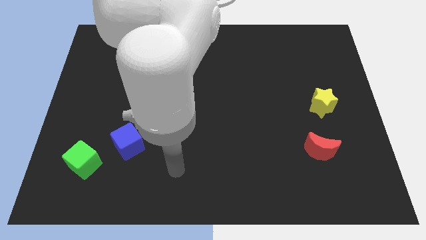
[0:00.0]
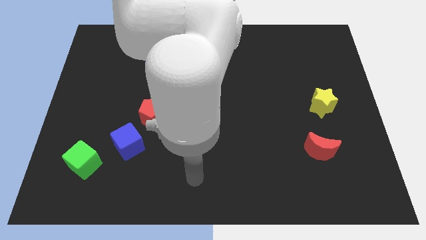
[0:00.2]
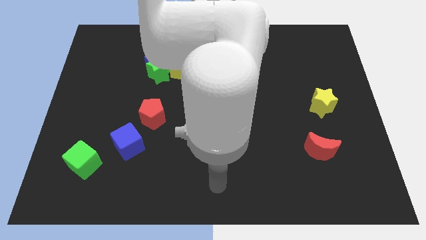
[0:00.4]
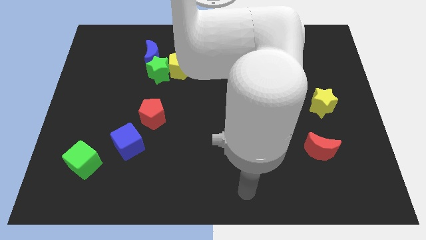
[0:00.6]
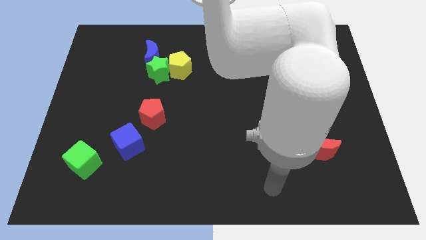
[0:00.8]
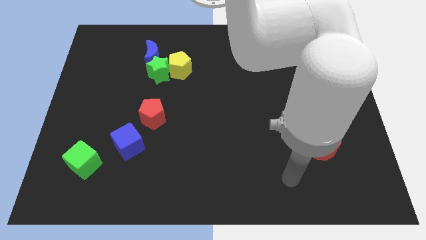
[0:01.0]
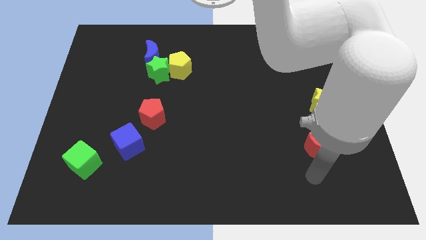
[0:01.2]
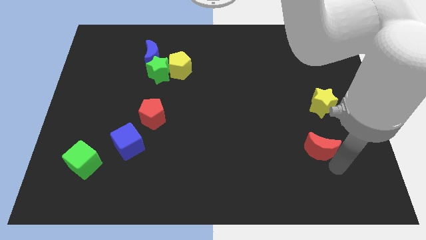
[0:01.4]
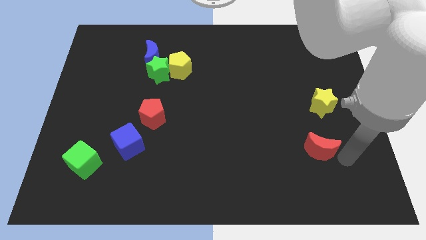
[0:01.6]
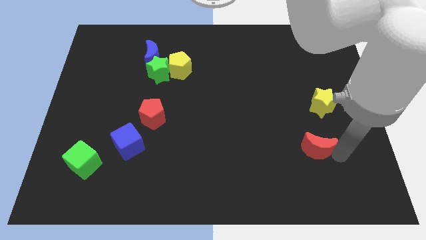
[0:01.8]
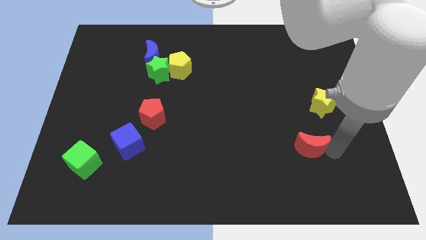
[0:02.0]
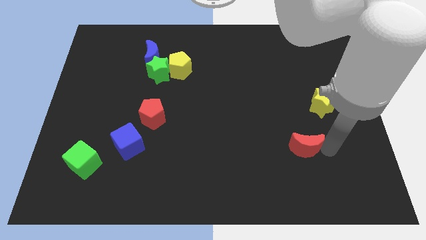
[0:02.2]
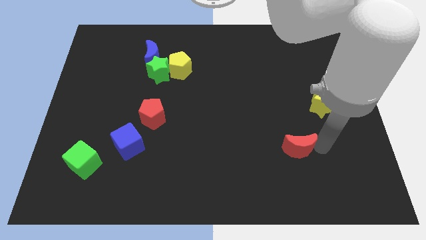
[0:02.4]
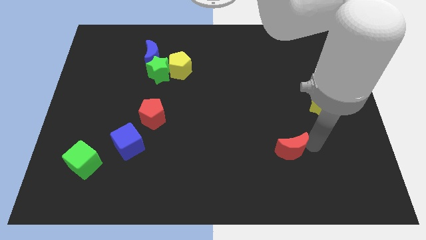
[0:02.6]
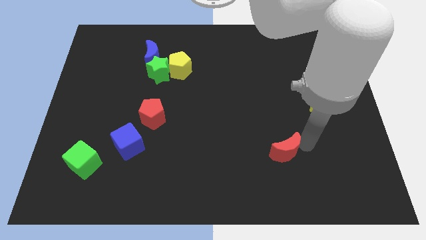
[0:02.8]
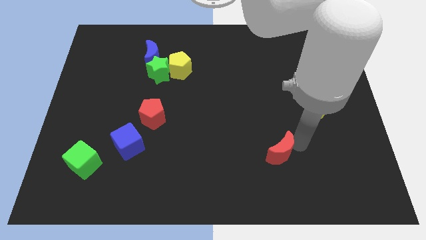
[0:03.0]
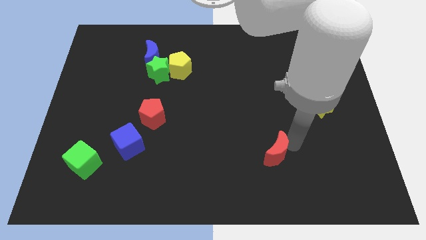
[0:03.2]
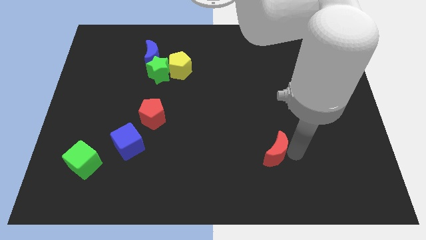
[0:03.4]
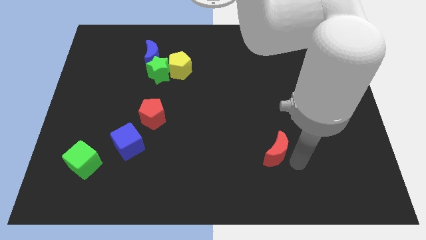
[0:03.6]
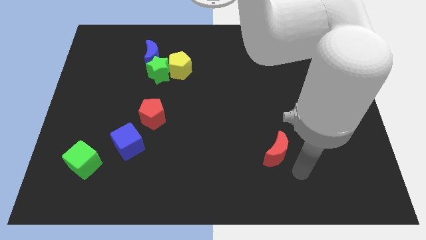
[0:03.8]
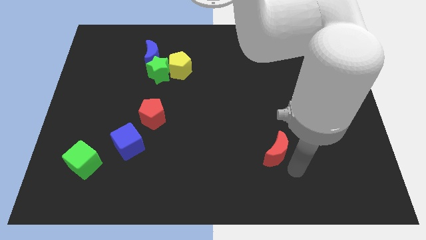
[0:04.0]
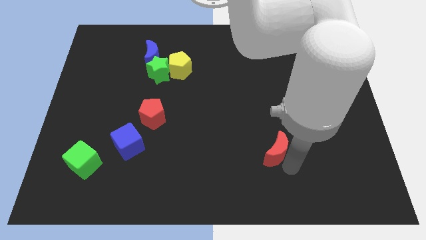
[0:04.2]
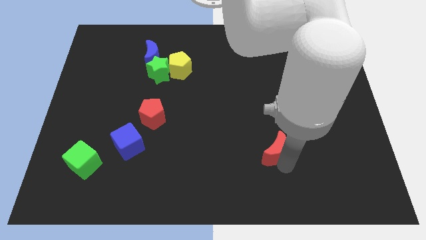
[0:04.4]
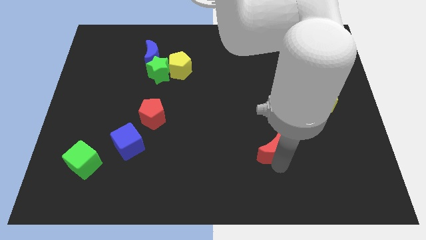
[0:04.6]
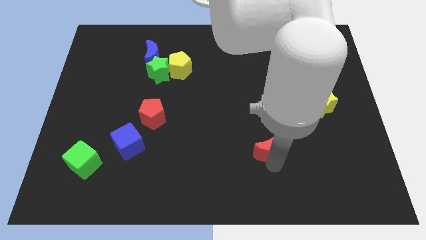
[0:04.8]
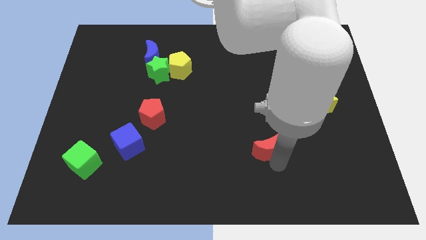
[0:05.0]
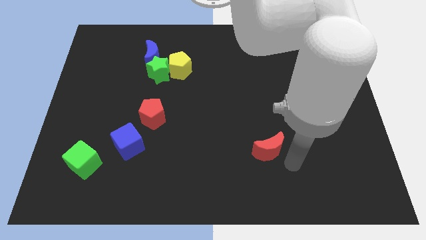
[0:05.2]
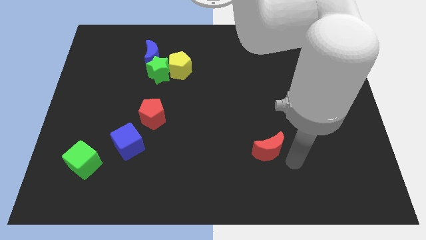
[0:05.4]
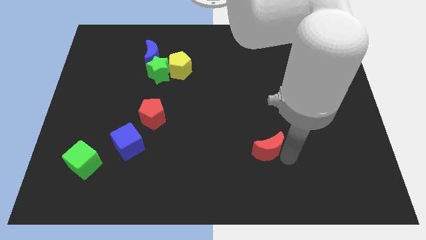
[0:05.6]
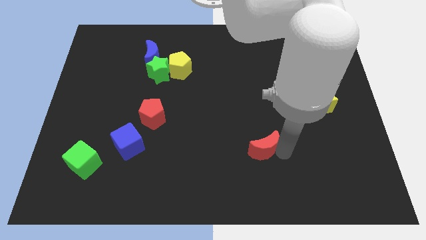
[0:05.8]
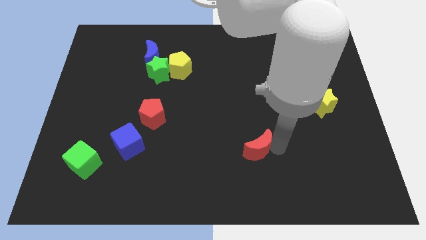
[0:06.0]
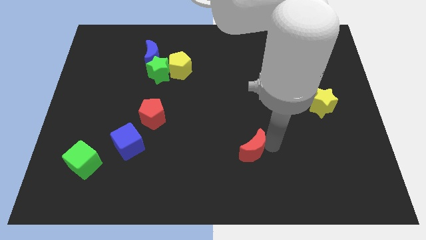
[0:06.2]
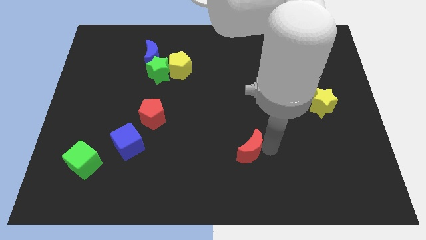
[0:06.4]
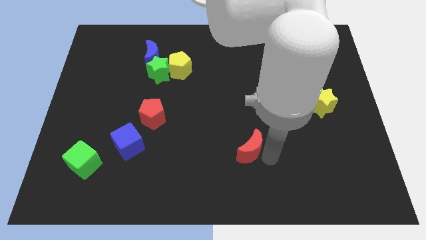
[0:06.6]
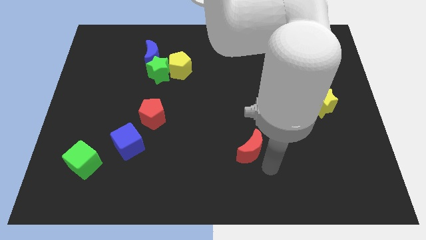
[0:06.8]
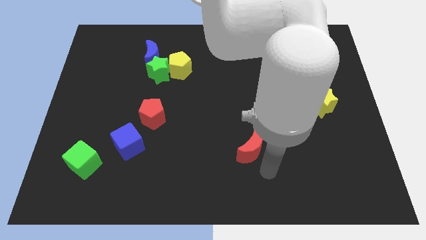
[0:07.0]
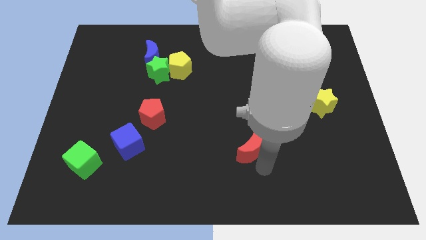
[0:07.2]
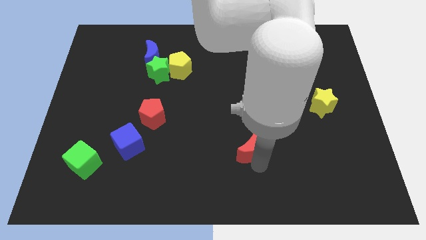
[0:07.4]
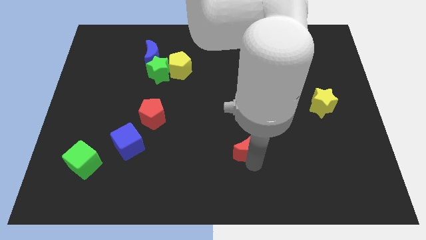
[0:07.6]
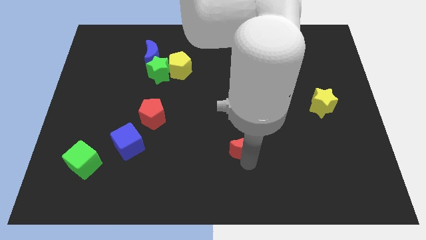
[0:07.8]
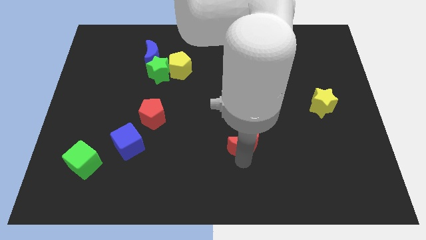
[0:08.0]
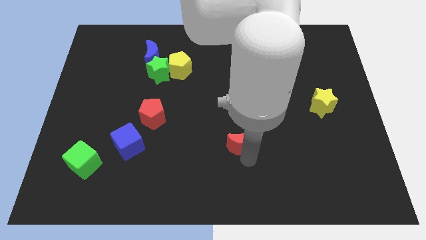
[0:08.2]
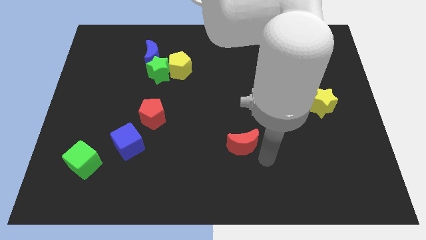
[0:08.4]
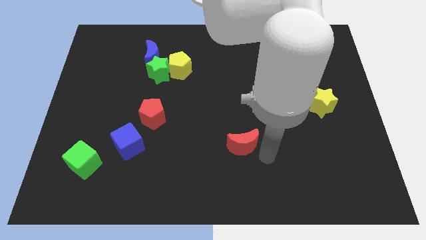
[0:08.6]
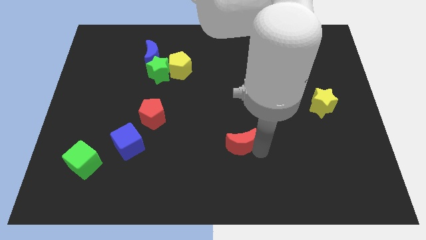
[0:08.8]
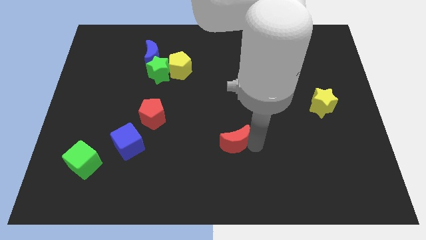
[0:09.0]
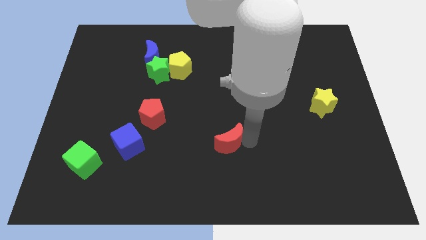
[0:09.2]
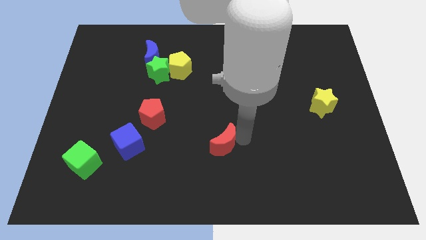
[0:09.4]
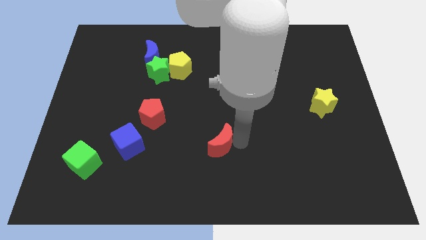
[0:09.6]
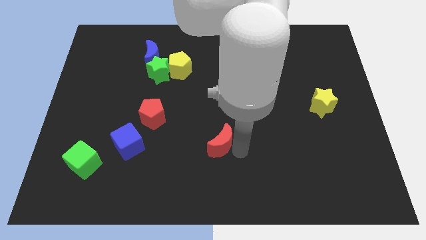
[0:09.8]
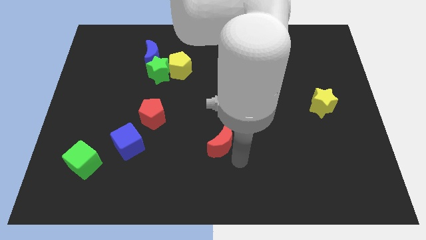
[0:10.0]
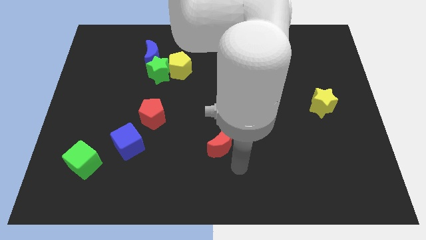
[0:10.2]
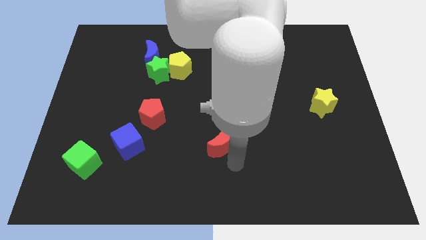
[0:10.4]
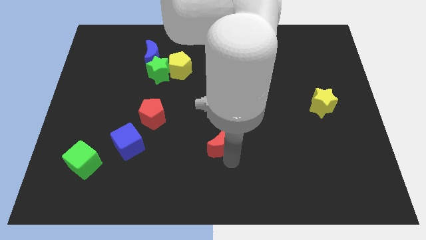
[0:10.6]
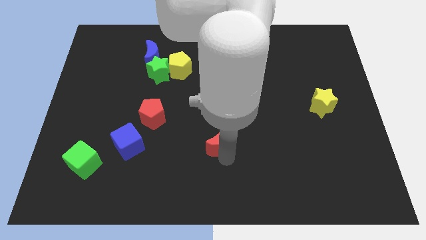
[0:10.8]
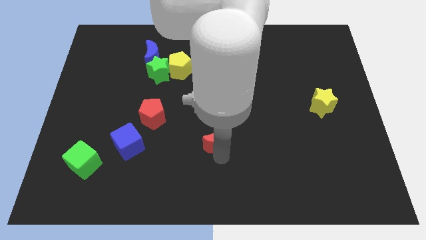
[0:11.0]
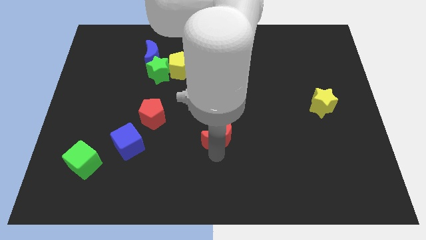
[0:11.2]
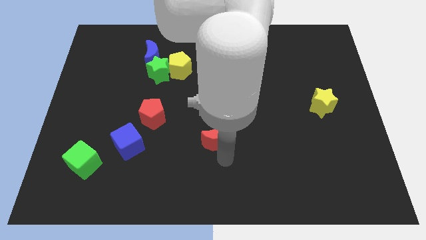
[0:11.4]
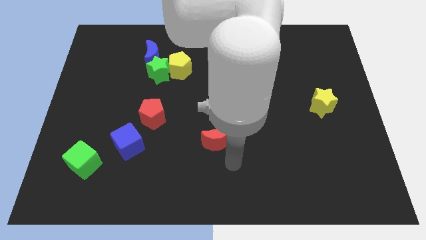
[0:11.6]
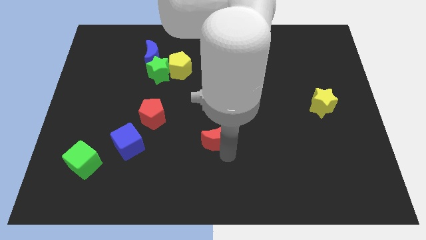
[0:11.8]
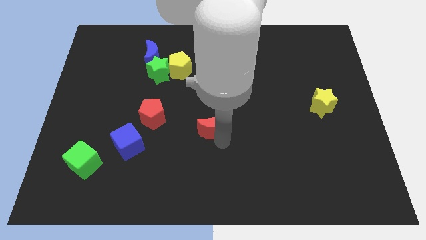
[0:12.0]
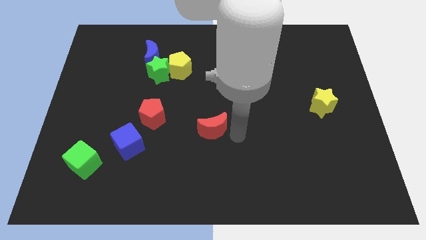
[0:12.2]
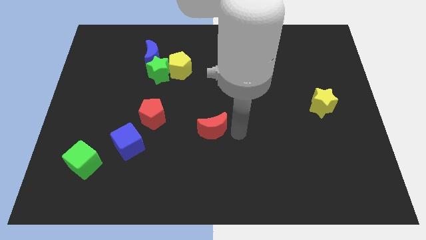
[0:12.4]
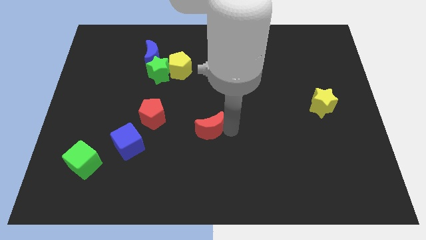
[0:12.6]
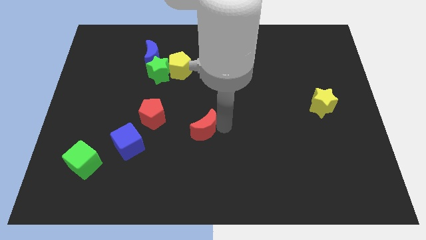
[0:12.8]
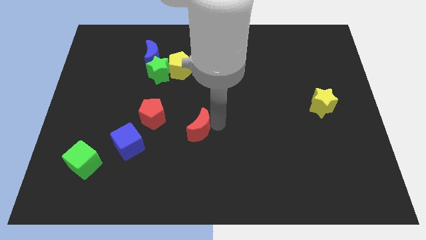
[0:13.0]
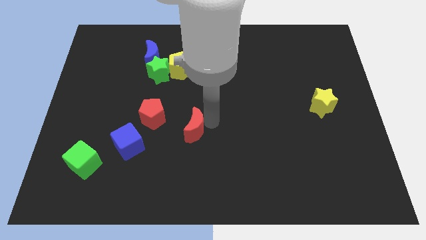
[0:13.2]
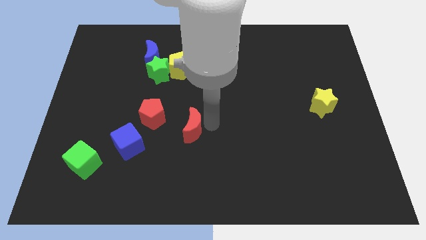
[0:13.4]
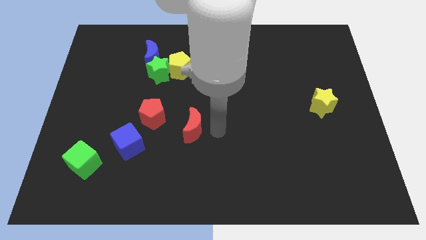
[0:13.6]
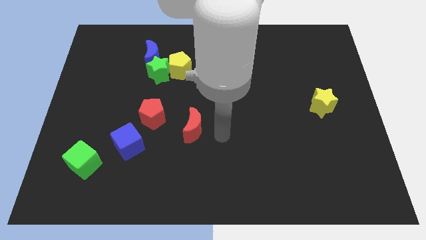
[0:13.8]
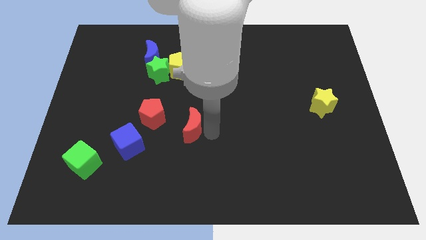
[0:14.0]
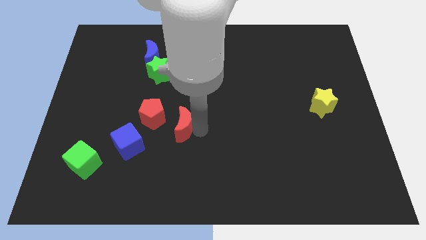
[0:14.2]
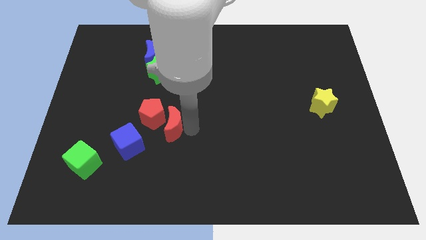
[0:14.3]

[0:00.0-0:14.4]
put the red moon towards the red pentagon

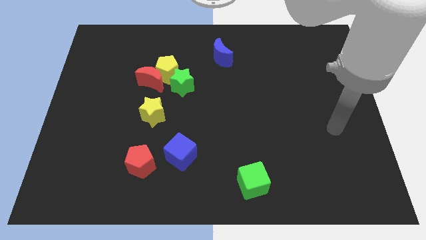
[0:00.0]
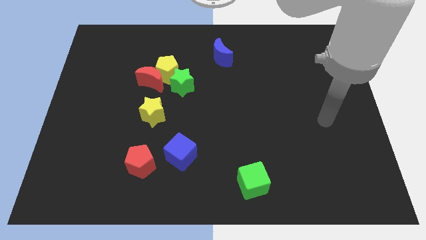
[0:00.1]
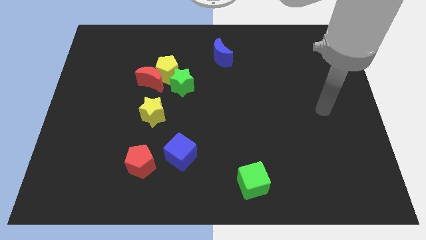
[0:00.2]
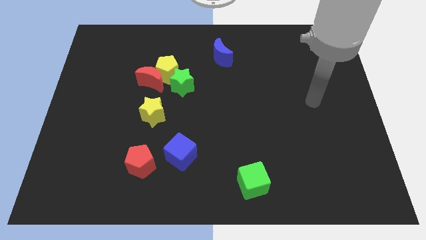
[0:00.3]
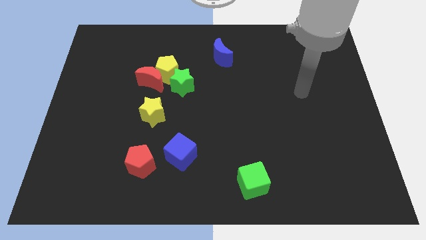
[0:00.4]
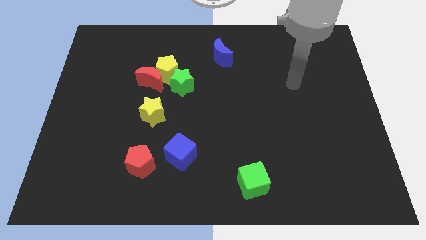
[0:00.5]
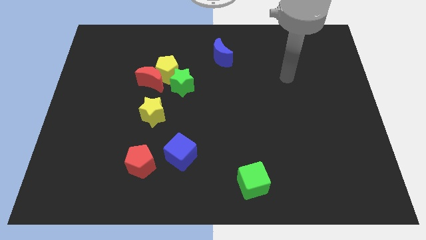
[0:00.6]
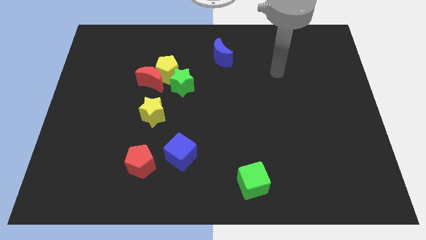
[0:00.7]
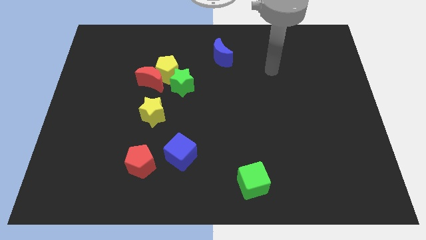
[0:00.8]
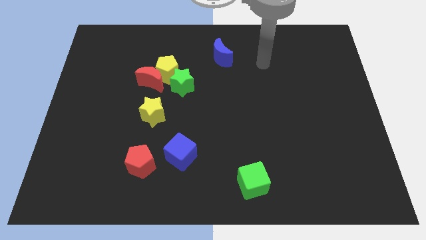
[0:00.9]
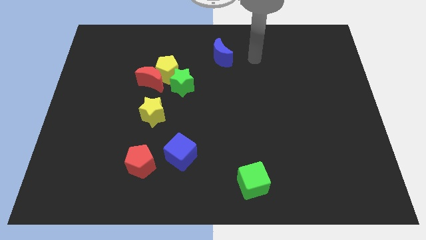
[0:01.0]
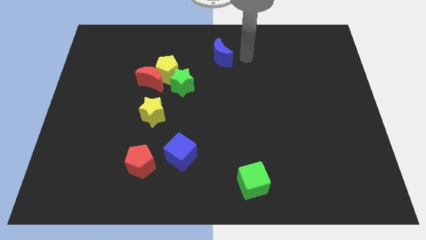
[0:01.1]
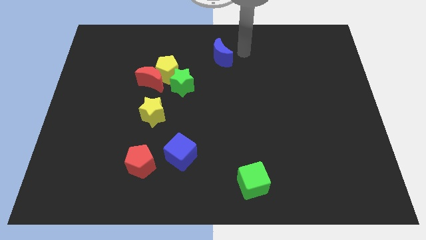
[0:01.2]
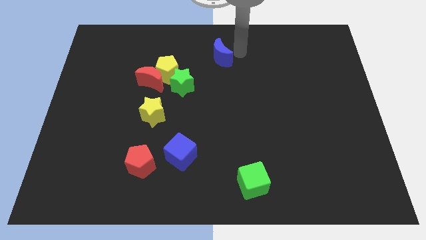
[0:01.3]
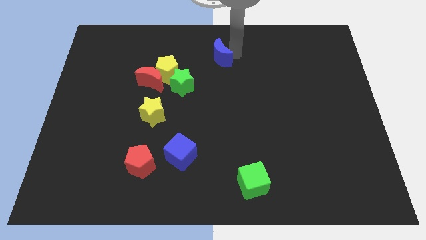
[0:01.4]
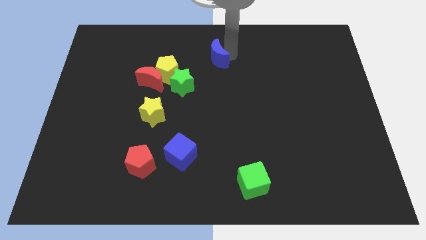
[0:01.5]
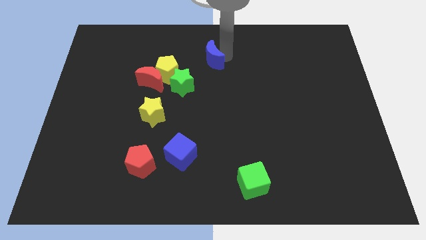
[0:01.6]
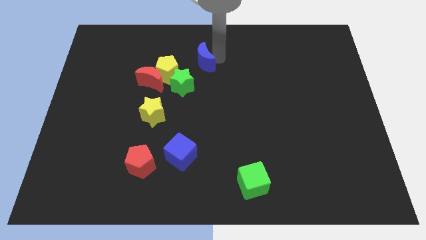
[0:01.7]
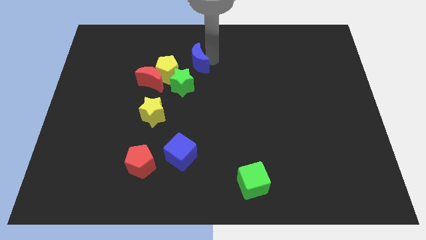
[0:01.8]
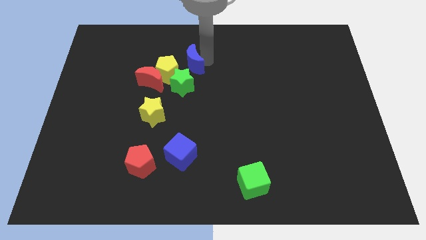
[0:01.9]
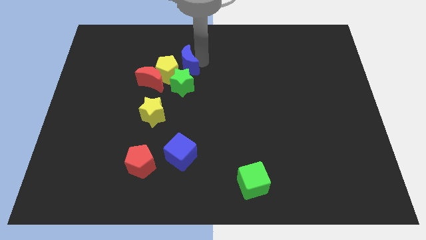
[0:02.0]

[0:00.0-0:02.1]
move the blue moon next to the yellow pentagon
